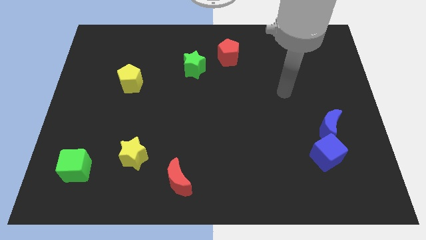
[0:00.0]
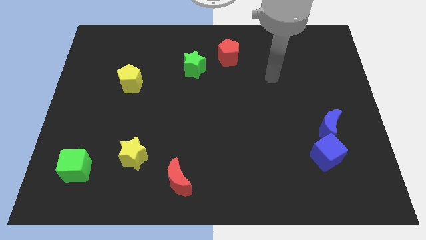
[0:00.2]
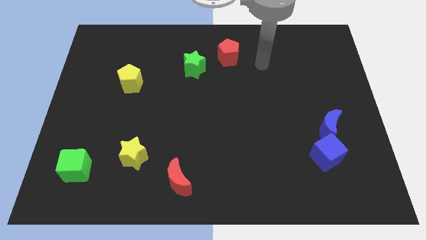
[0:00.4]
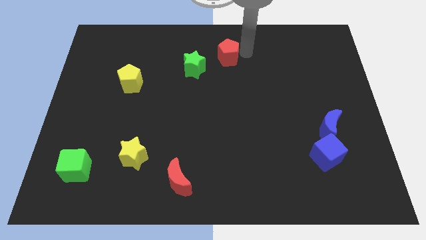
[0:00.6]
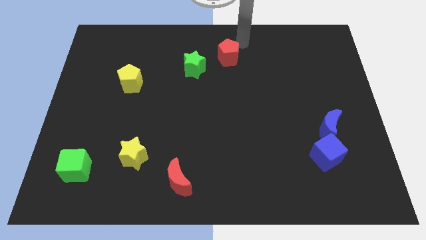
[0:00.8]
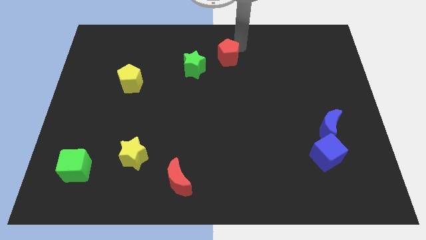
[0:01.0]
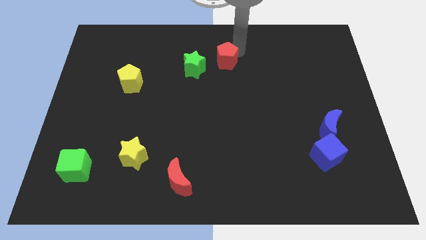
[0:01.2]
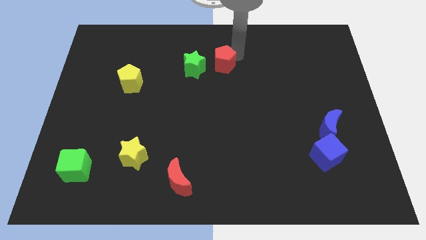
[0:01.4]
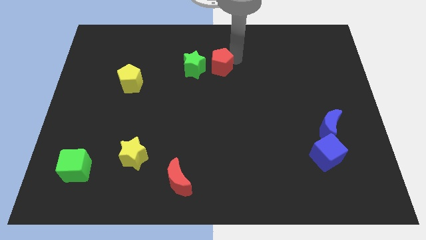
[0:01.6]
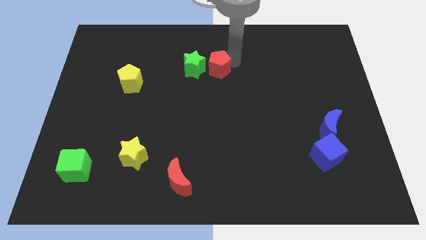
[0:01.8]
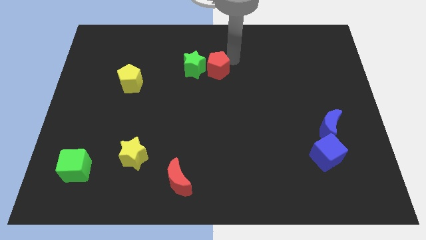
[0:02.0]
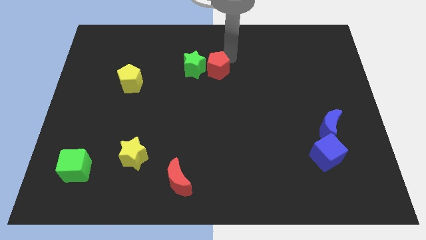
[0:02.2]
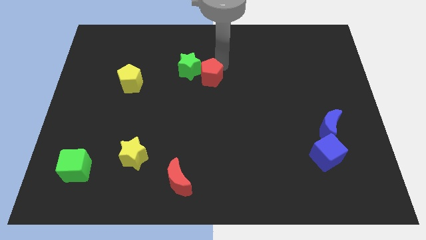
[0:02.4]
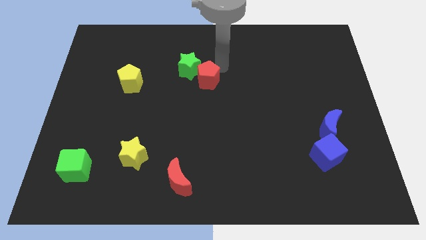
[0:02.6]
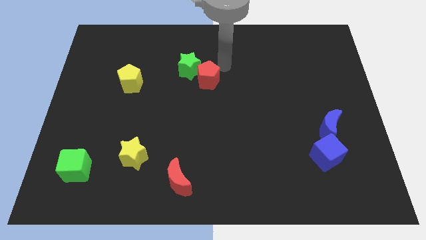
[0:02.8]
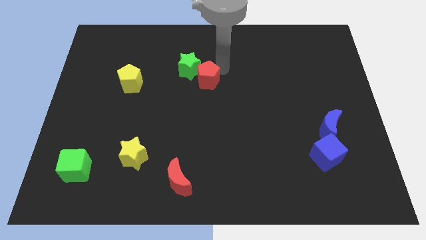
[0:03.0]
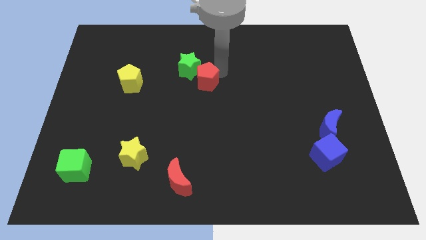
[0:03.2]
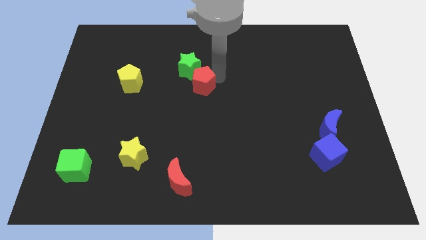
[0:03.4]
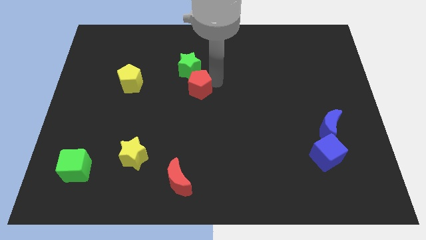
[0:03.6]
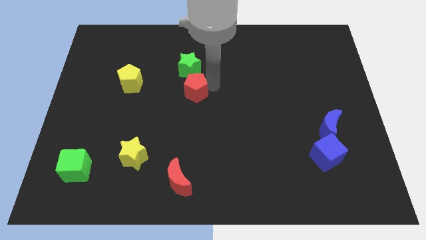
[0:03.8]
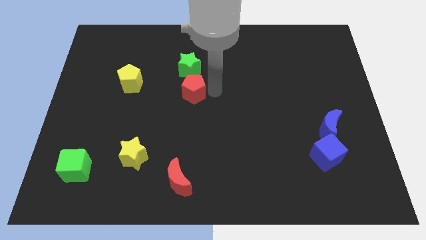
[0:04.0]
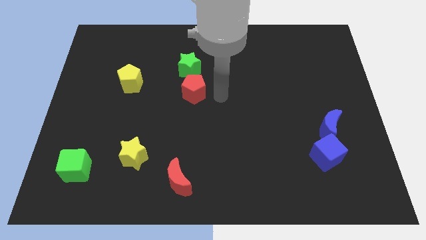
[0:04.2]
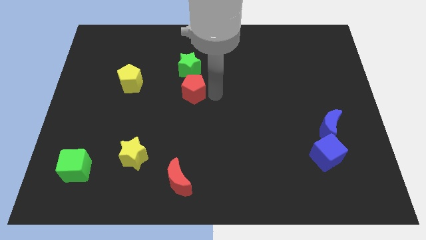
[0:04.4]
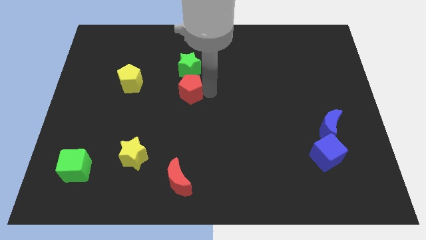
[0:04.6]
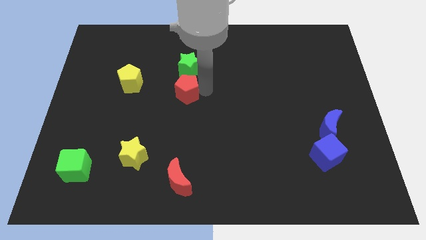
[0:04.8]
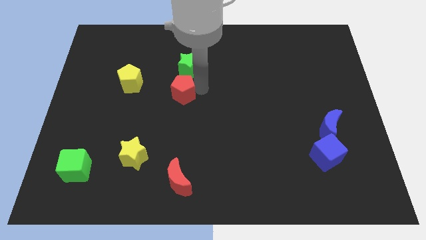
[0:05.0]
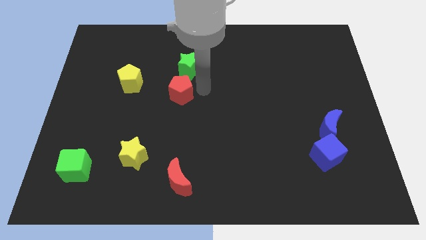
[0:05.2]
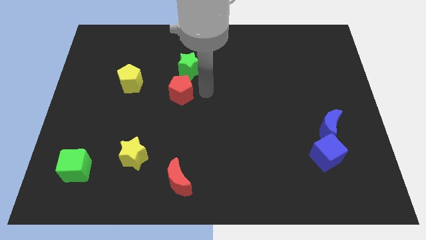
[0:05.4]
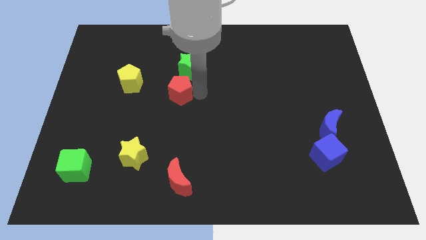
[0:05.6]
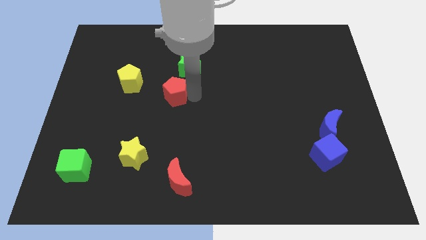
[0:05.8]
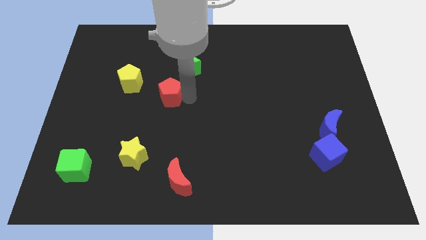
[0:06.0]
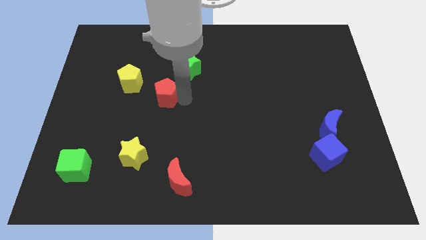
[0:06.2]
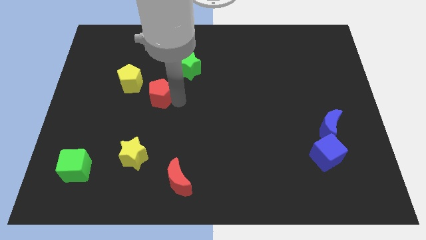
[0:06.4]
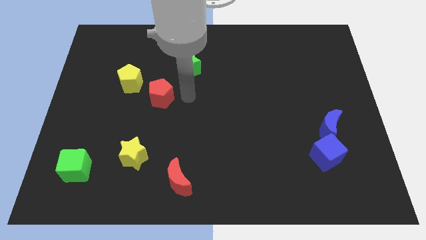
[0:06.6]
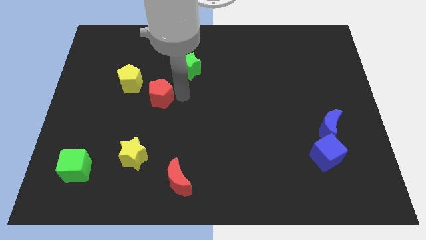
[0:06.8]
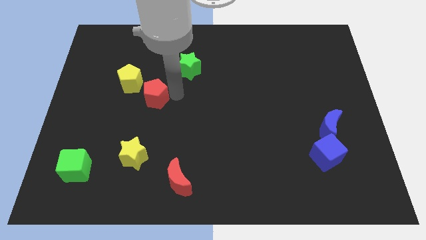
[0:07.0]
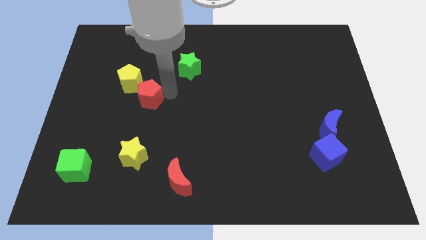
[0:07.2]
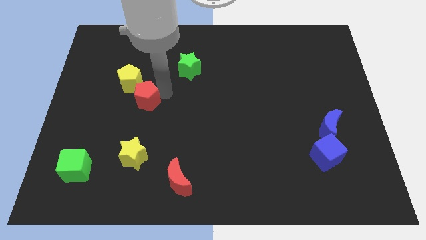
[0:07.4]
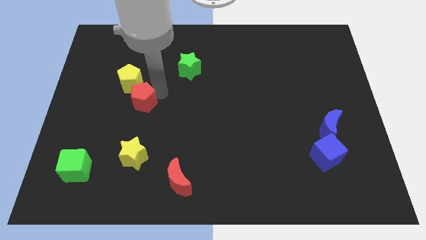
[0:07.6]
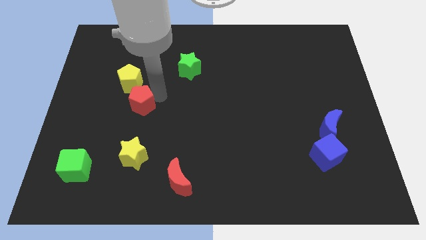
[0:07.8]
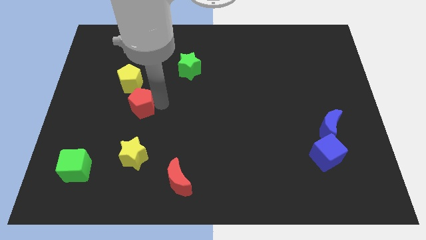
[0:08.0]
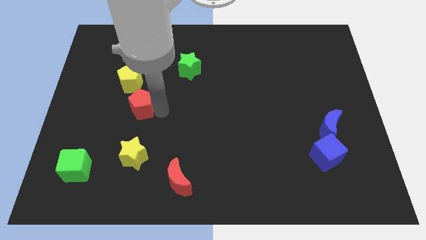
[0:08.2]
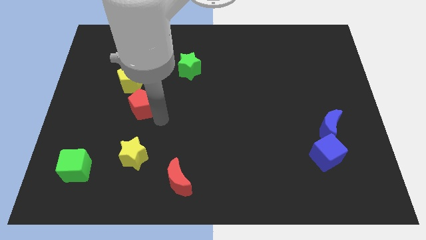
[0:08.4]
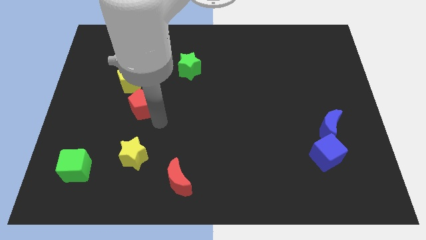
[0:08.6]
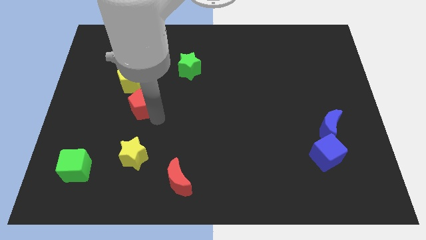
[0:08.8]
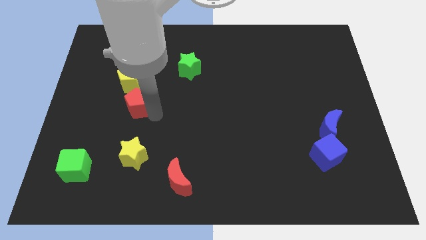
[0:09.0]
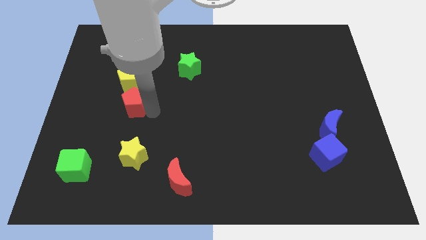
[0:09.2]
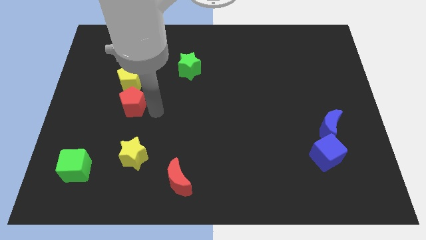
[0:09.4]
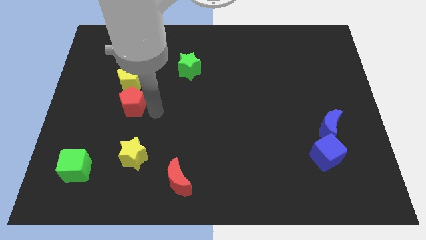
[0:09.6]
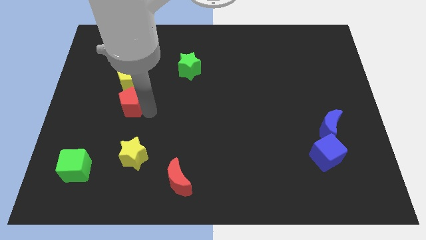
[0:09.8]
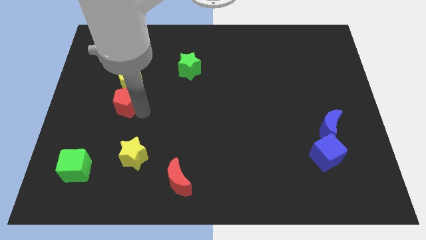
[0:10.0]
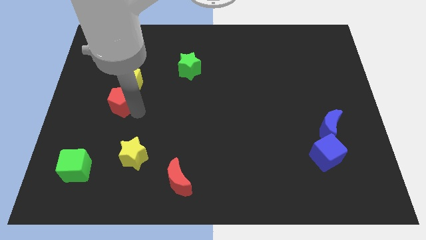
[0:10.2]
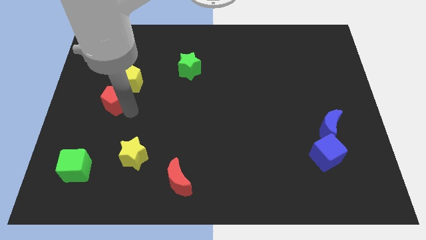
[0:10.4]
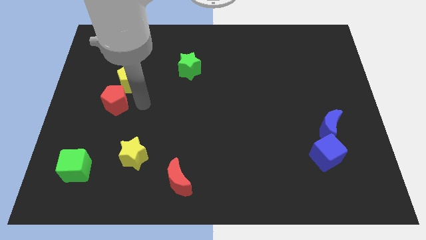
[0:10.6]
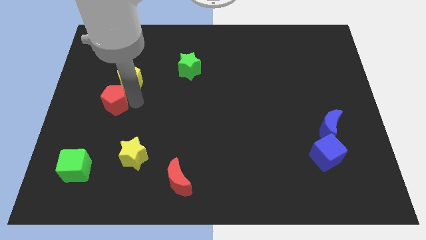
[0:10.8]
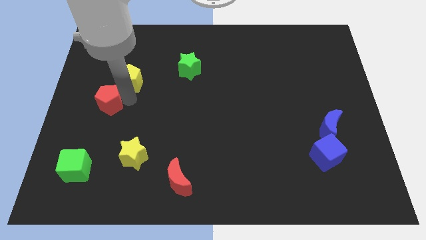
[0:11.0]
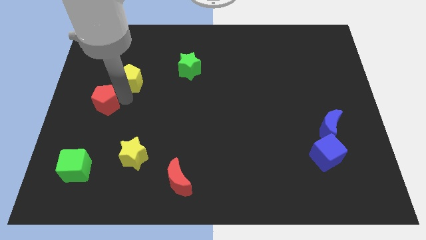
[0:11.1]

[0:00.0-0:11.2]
slide the red pentagon to the left side of the board

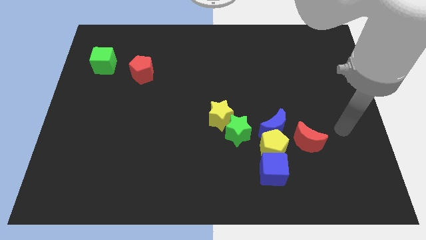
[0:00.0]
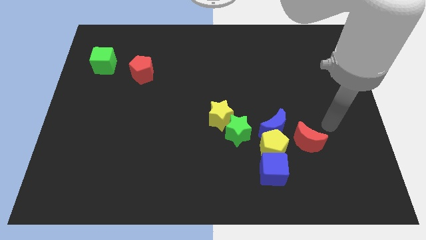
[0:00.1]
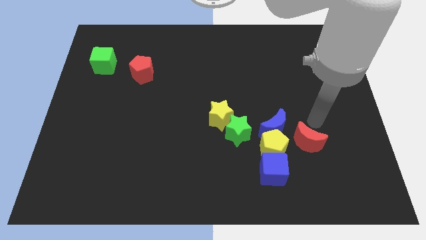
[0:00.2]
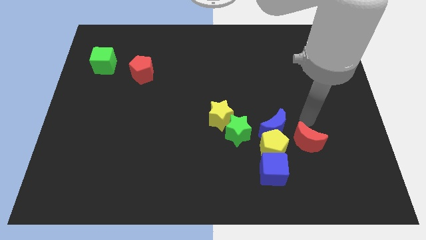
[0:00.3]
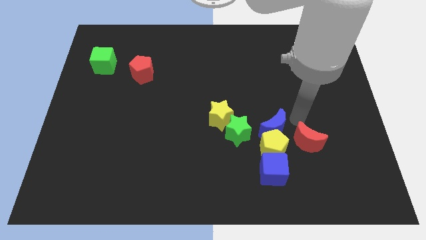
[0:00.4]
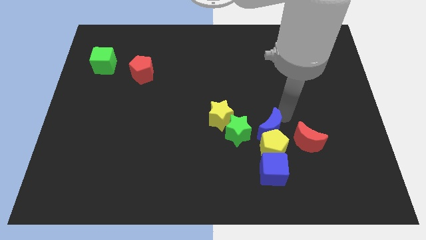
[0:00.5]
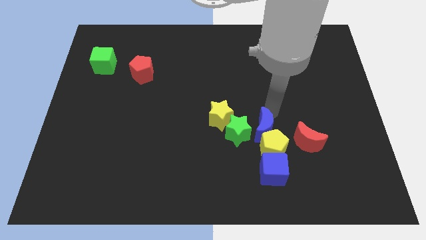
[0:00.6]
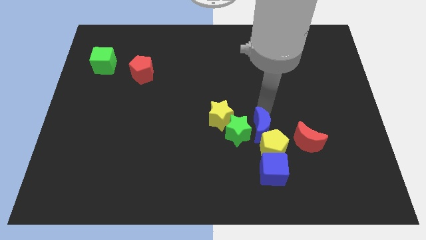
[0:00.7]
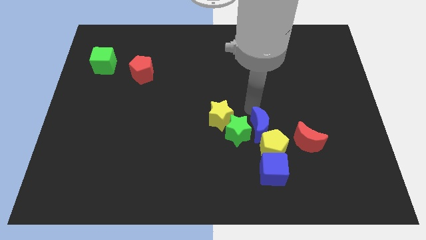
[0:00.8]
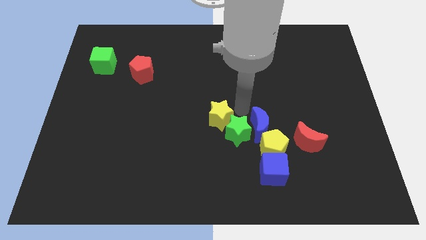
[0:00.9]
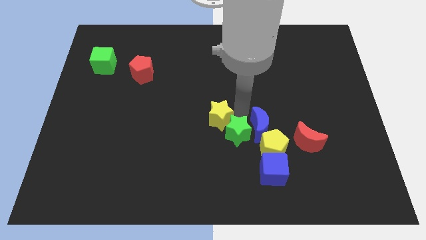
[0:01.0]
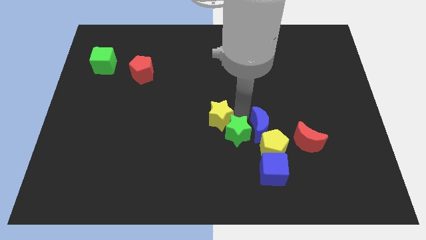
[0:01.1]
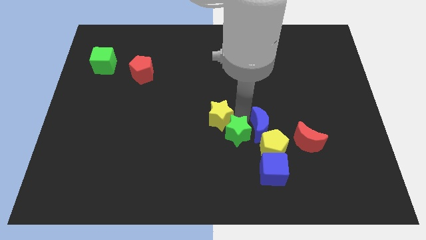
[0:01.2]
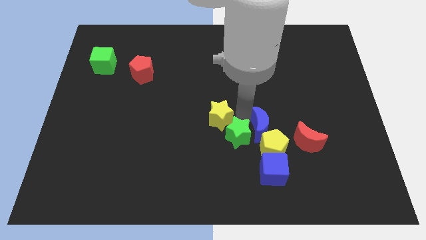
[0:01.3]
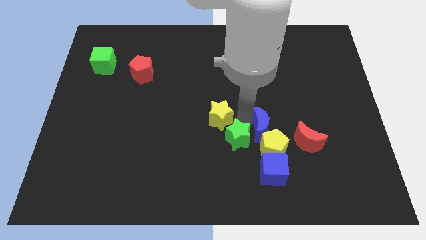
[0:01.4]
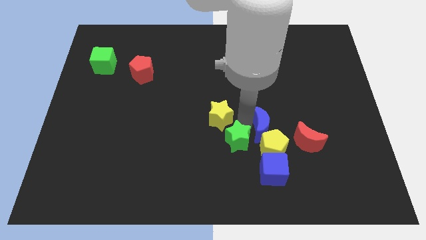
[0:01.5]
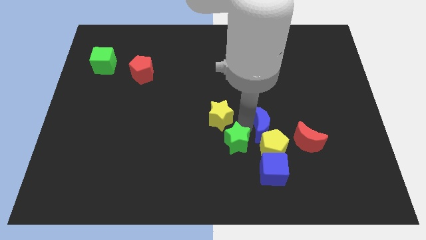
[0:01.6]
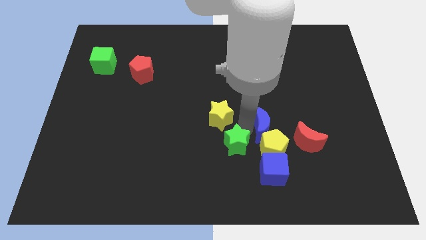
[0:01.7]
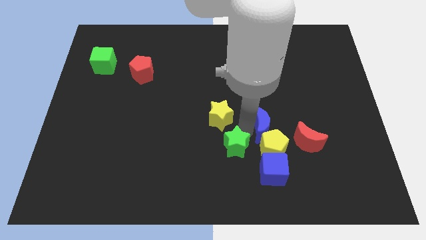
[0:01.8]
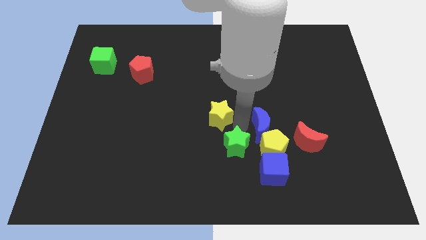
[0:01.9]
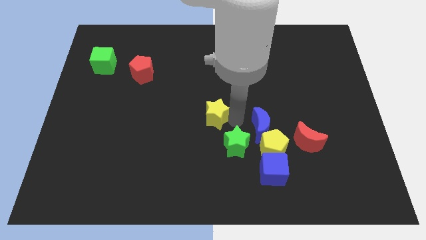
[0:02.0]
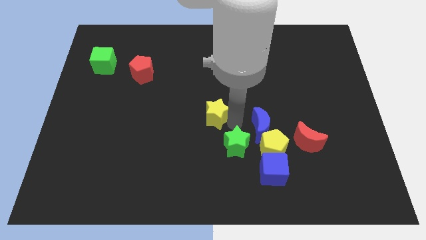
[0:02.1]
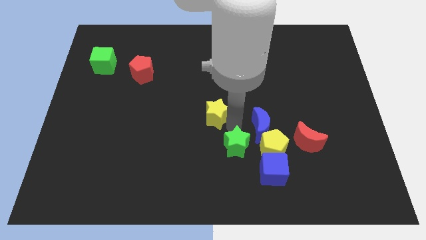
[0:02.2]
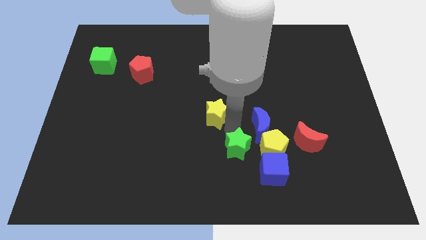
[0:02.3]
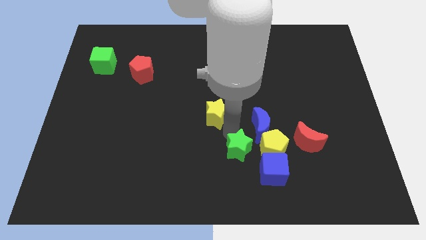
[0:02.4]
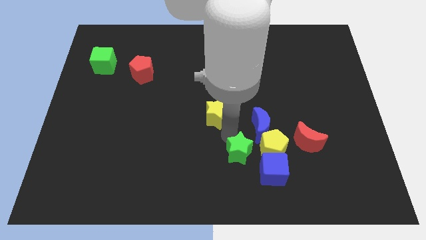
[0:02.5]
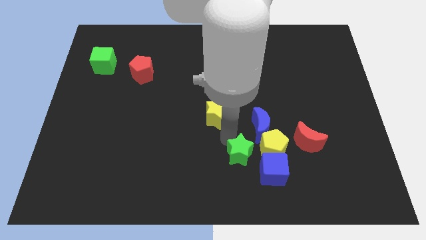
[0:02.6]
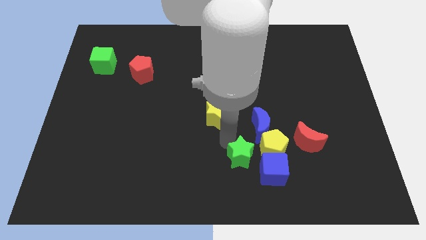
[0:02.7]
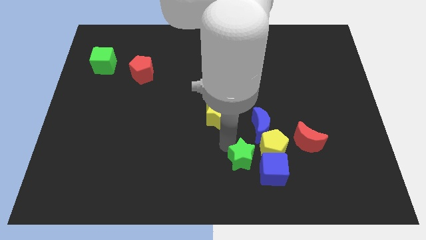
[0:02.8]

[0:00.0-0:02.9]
move the green star to the bottom side
